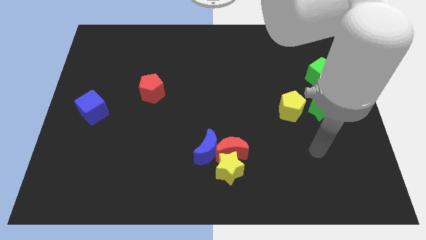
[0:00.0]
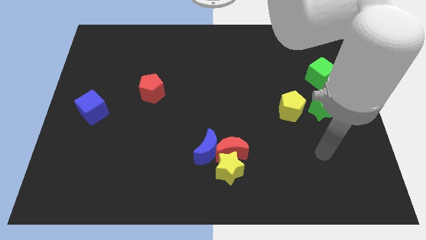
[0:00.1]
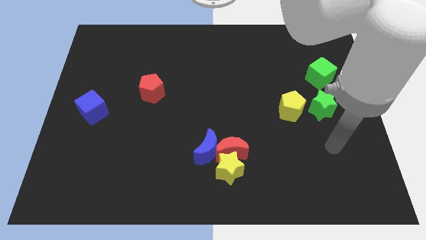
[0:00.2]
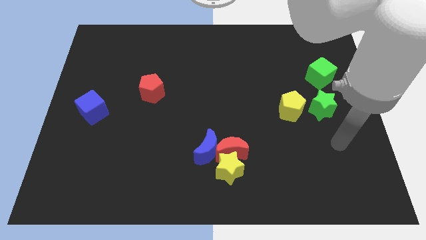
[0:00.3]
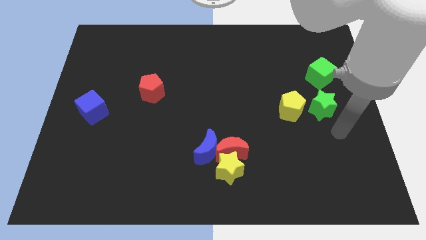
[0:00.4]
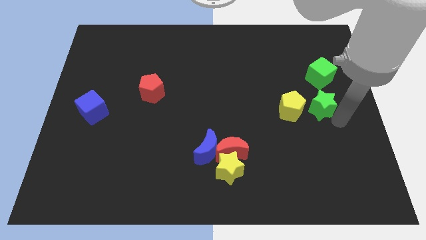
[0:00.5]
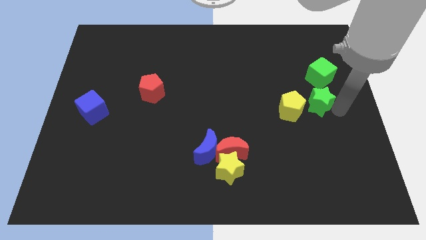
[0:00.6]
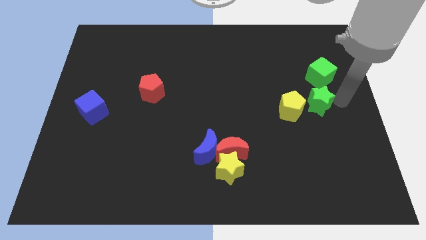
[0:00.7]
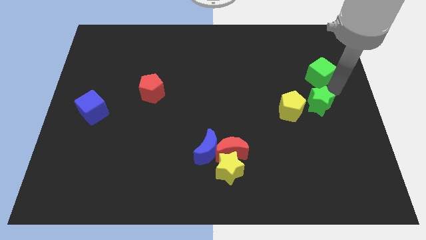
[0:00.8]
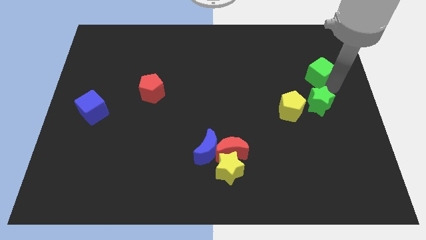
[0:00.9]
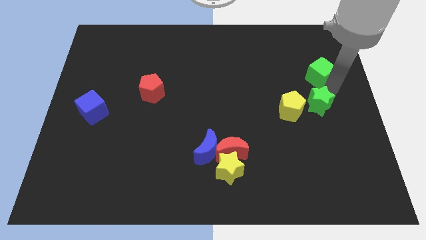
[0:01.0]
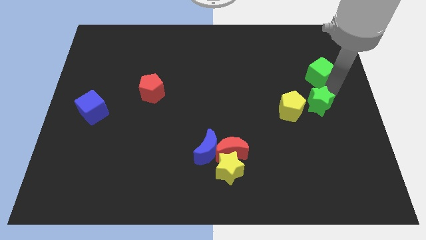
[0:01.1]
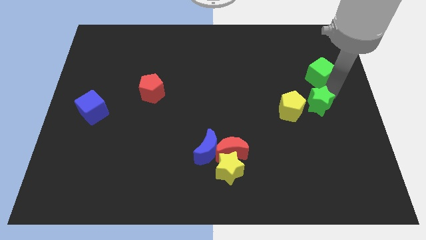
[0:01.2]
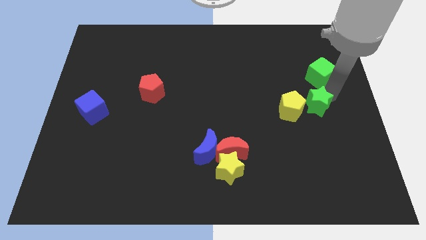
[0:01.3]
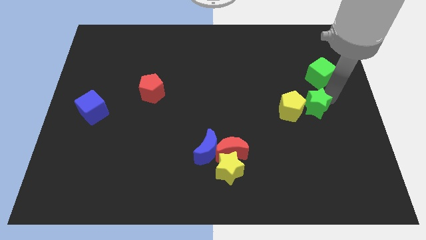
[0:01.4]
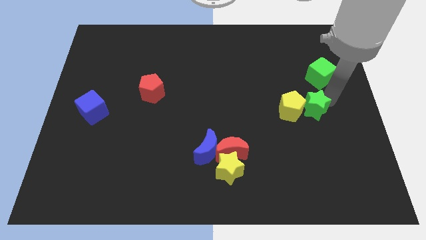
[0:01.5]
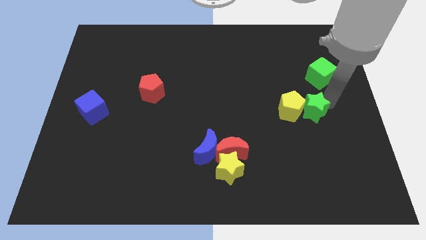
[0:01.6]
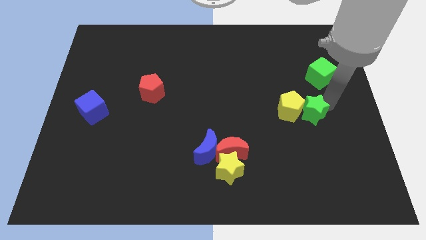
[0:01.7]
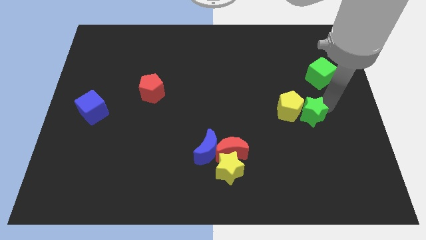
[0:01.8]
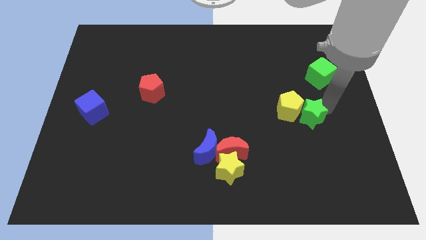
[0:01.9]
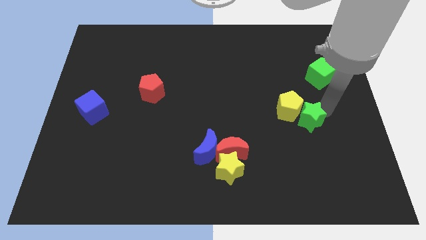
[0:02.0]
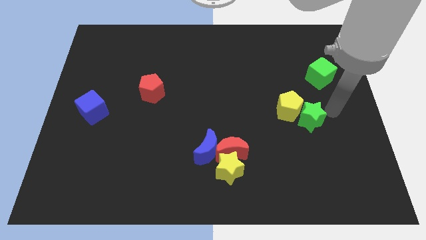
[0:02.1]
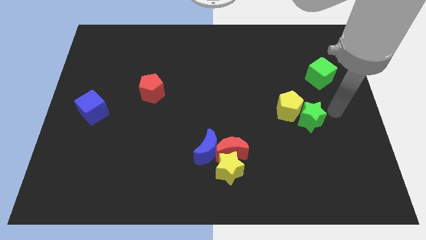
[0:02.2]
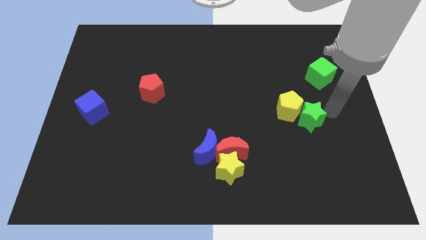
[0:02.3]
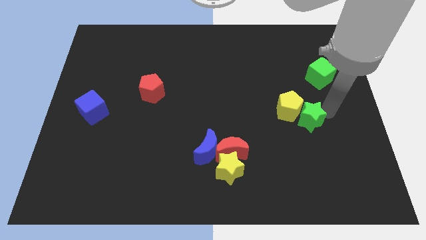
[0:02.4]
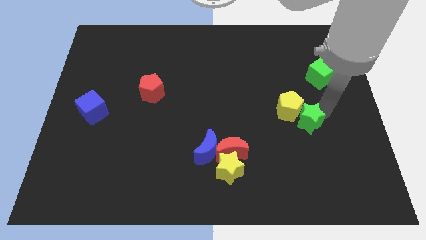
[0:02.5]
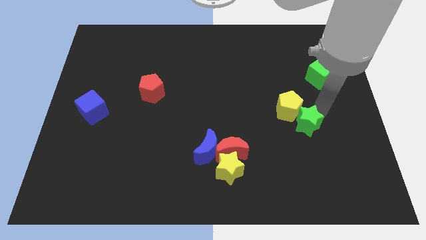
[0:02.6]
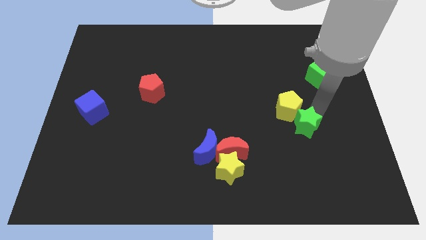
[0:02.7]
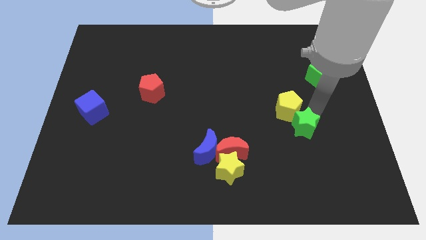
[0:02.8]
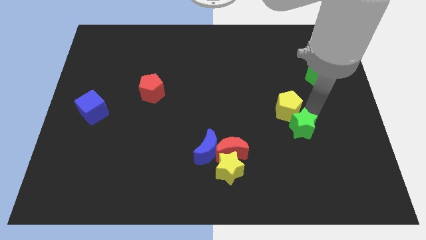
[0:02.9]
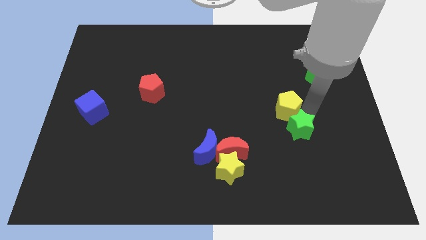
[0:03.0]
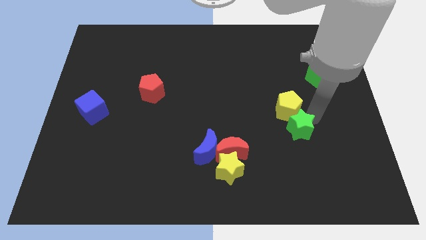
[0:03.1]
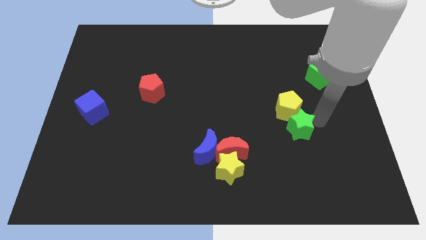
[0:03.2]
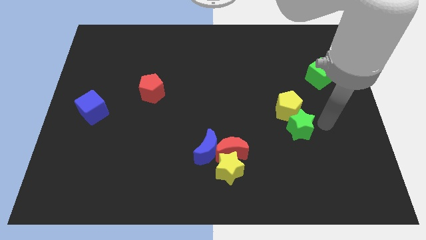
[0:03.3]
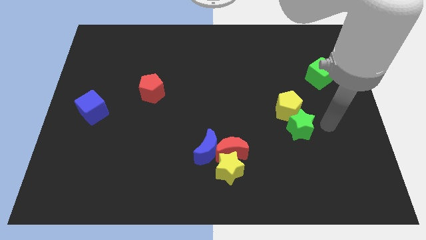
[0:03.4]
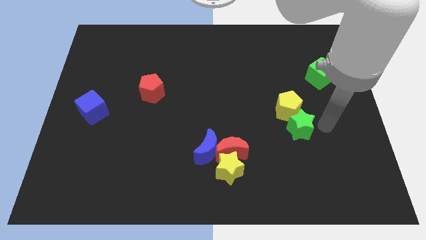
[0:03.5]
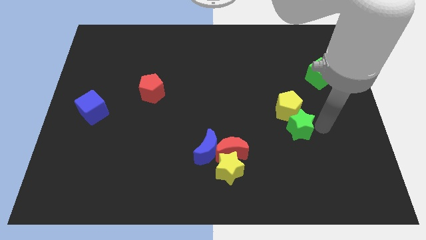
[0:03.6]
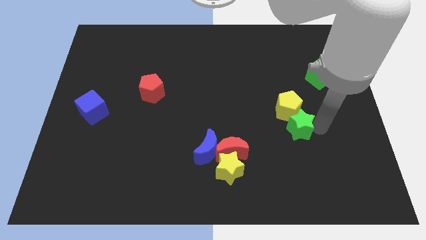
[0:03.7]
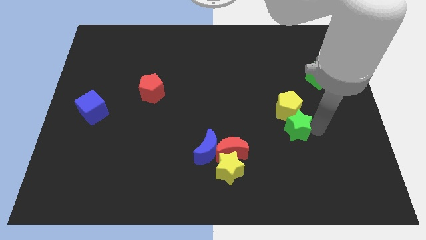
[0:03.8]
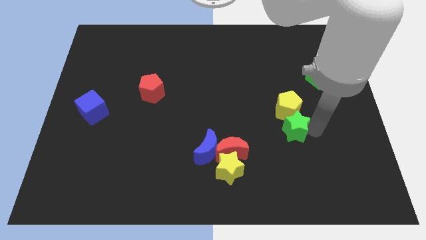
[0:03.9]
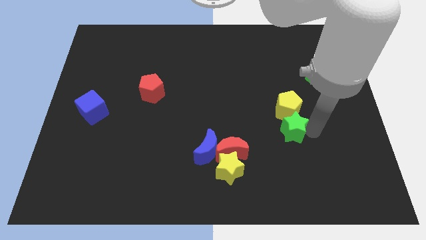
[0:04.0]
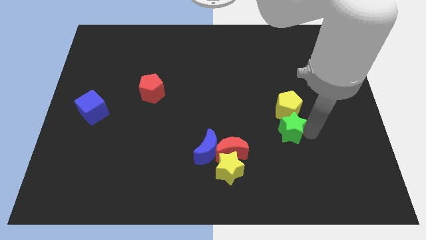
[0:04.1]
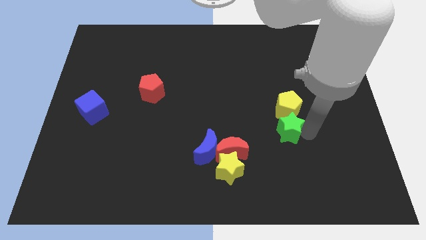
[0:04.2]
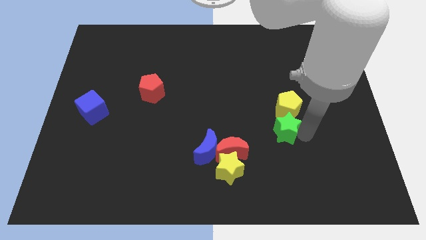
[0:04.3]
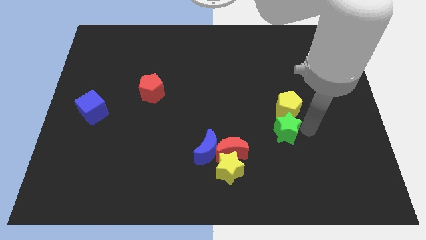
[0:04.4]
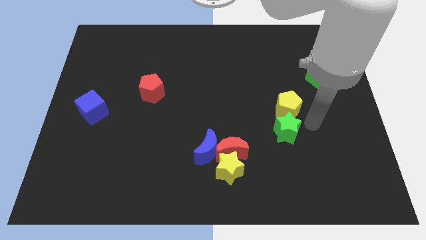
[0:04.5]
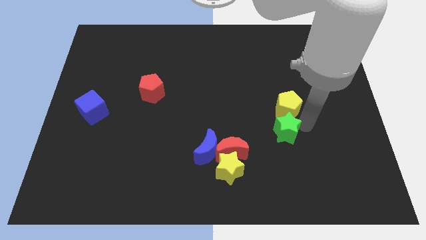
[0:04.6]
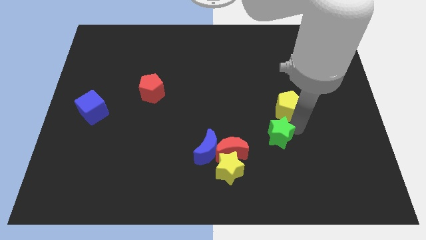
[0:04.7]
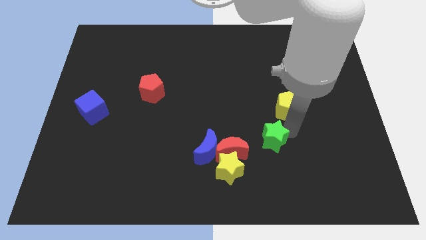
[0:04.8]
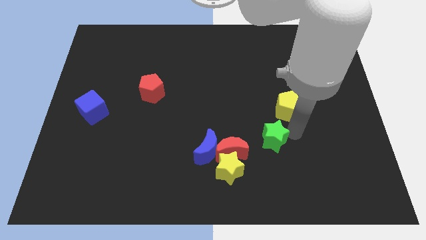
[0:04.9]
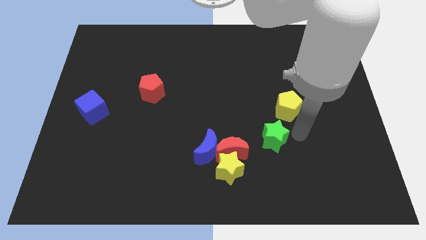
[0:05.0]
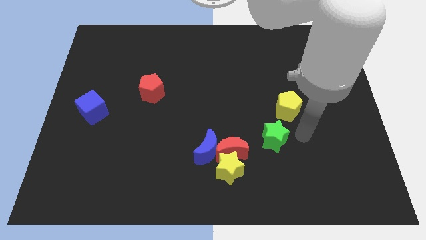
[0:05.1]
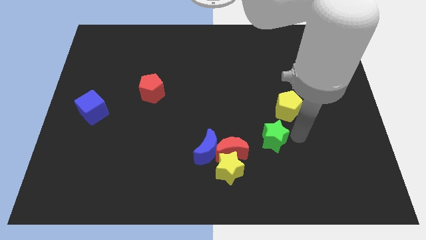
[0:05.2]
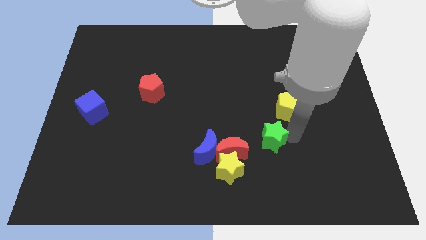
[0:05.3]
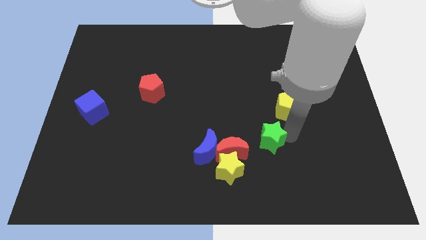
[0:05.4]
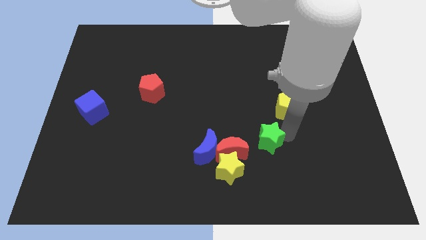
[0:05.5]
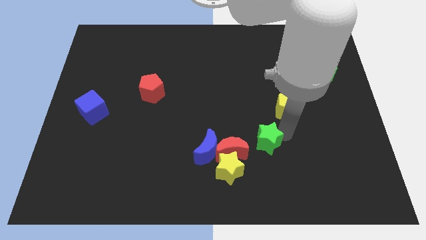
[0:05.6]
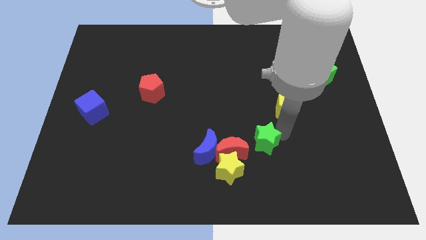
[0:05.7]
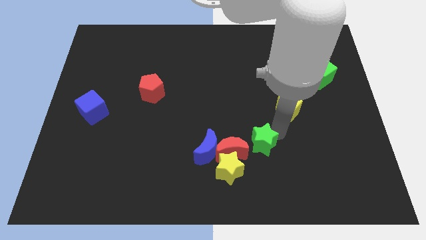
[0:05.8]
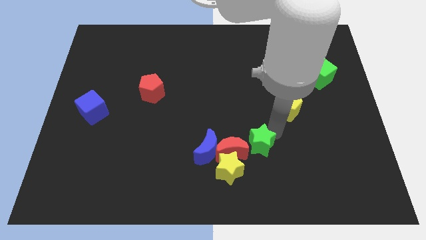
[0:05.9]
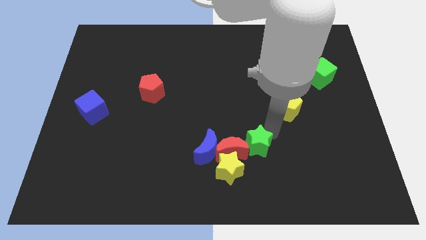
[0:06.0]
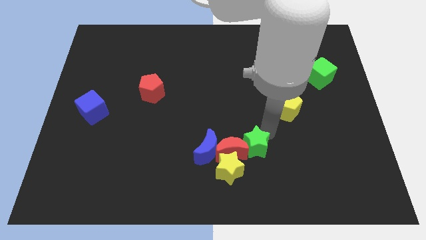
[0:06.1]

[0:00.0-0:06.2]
slide the green star close to the red moon

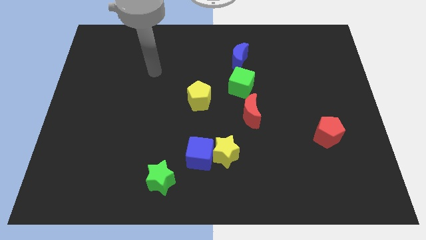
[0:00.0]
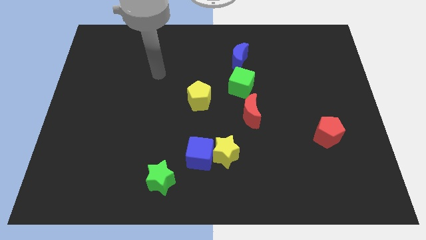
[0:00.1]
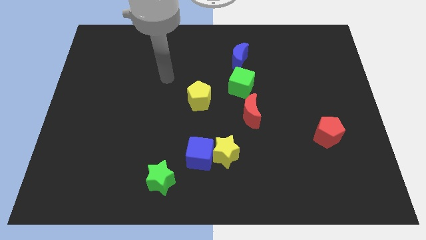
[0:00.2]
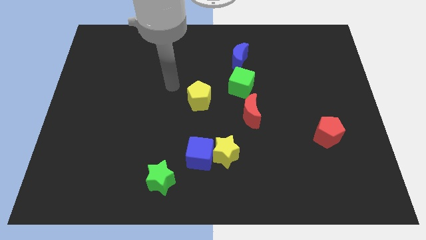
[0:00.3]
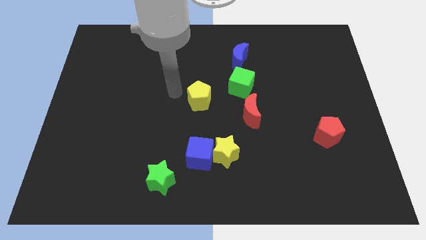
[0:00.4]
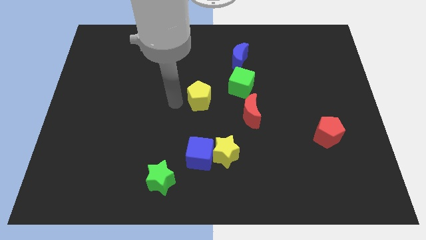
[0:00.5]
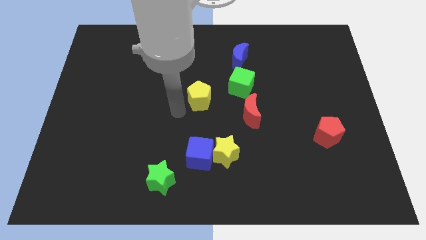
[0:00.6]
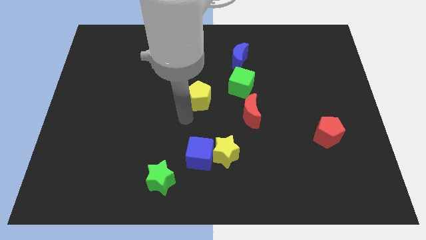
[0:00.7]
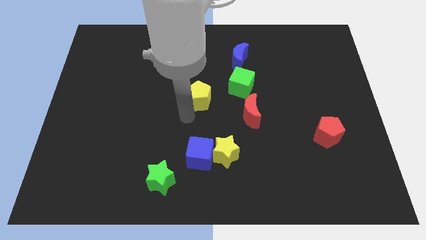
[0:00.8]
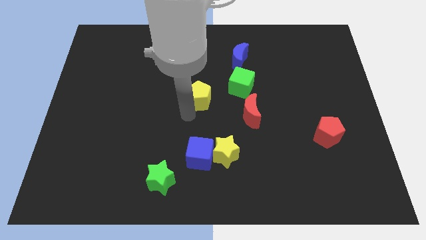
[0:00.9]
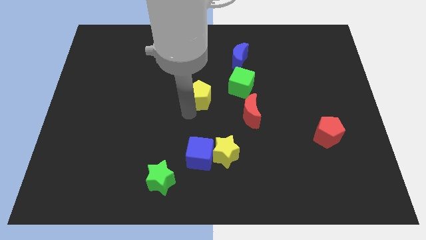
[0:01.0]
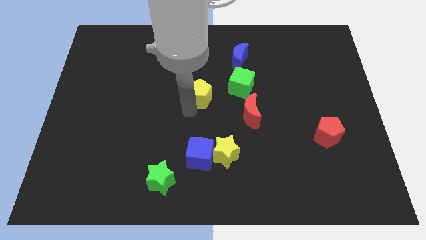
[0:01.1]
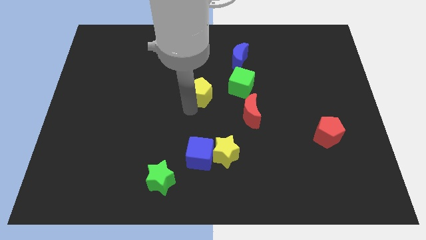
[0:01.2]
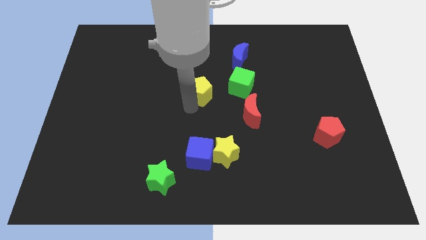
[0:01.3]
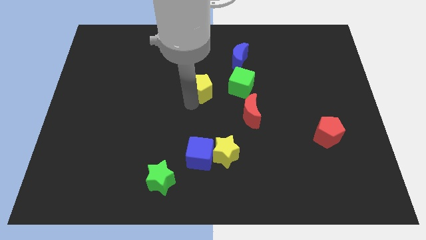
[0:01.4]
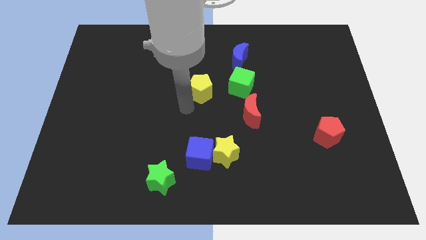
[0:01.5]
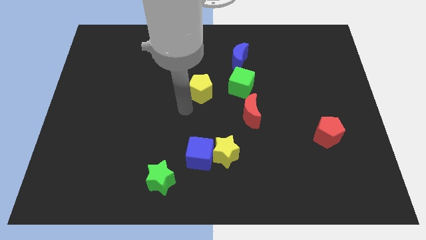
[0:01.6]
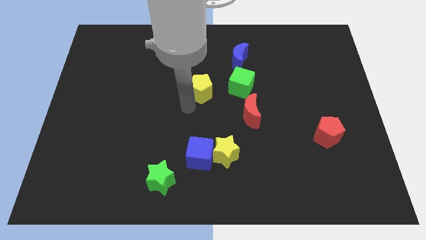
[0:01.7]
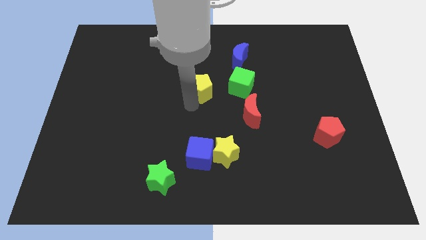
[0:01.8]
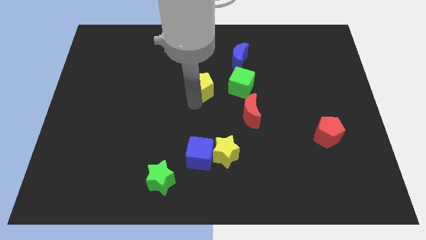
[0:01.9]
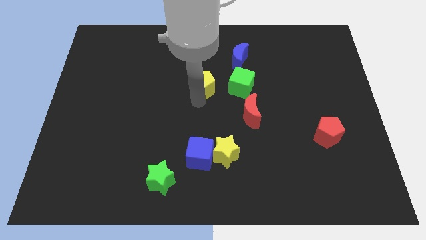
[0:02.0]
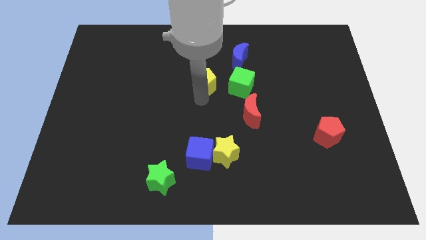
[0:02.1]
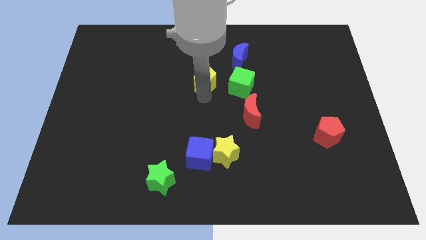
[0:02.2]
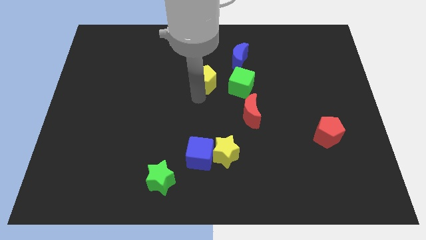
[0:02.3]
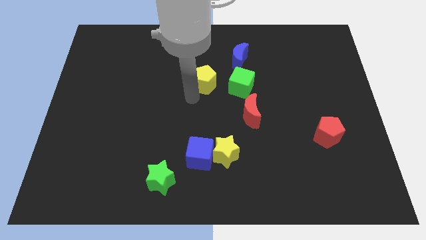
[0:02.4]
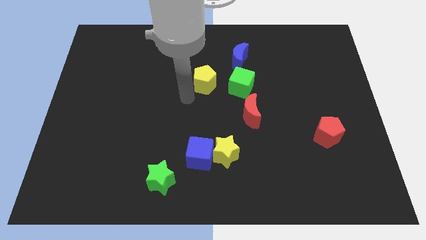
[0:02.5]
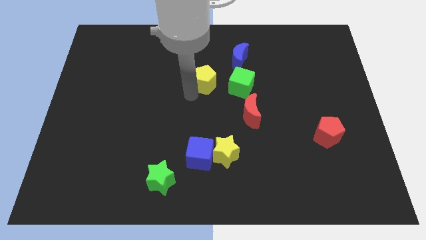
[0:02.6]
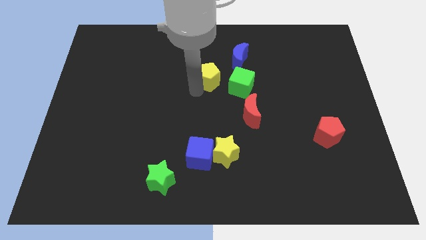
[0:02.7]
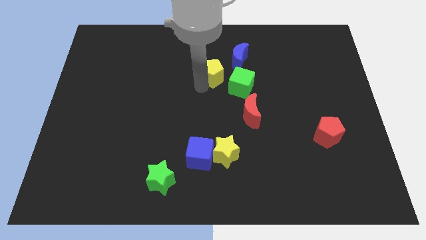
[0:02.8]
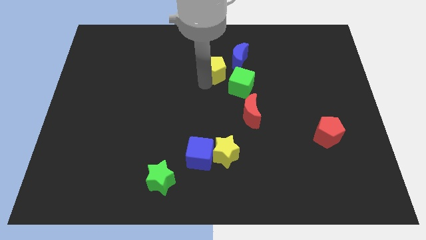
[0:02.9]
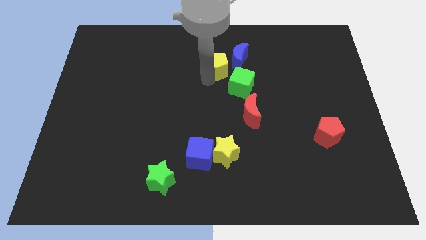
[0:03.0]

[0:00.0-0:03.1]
push the yellow pentagon next to the blue moon
